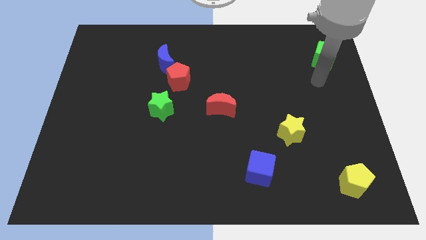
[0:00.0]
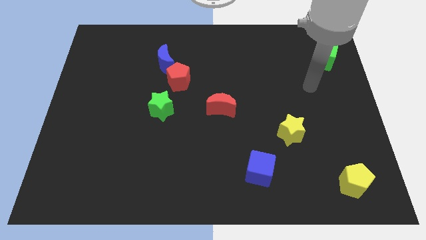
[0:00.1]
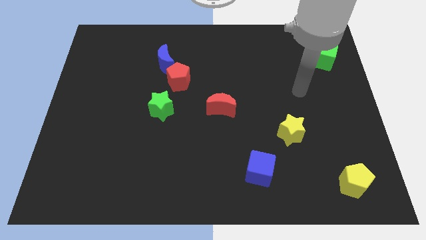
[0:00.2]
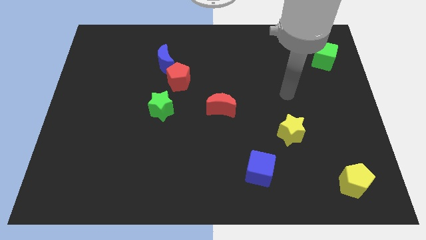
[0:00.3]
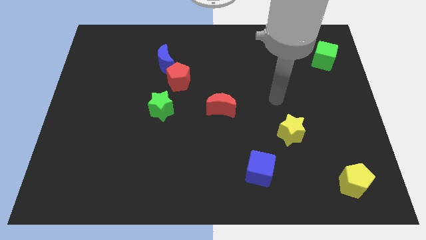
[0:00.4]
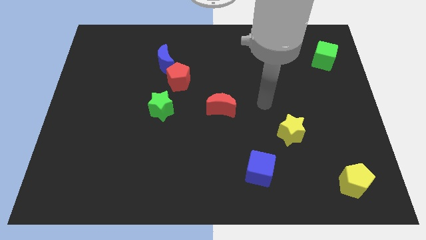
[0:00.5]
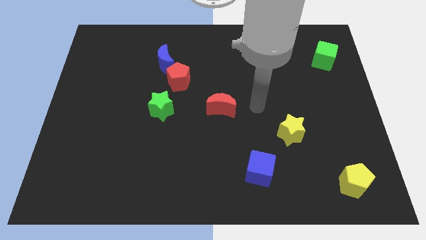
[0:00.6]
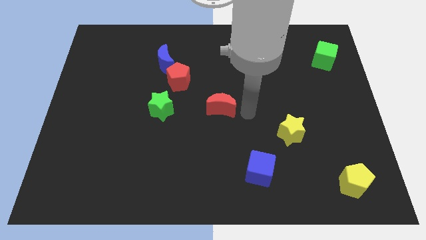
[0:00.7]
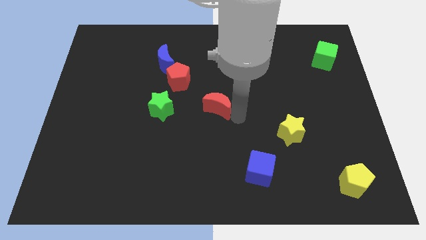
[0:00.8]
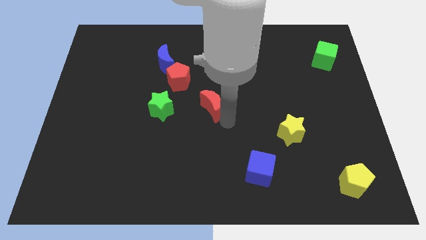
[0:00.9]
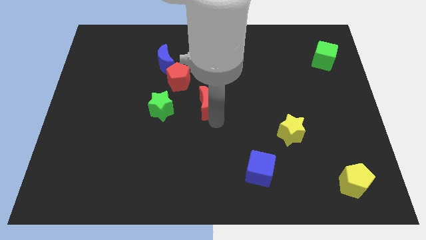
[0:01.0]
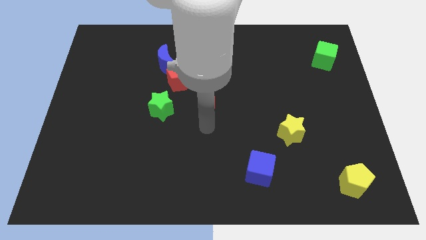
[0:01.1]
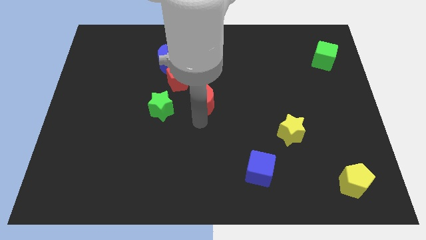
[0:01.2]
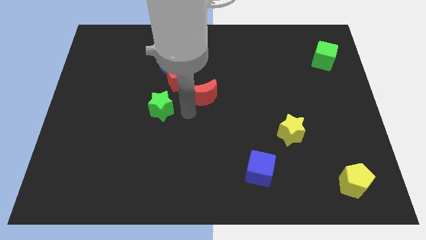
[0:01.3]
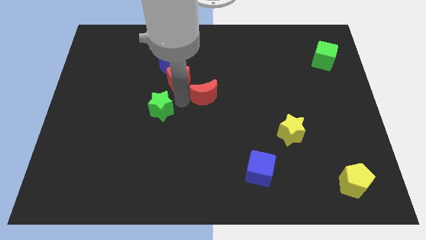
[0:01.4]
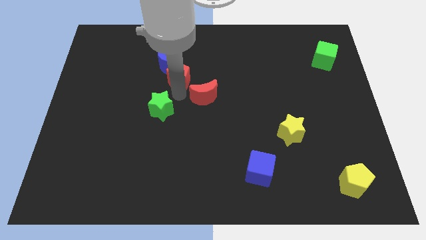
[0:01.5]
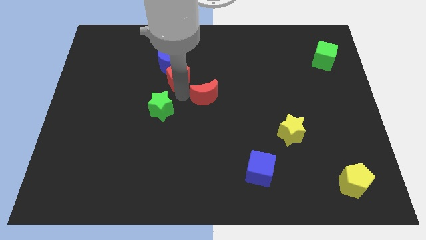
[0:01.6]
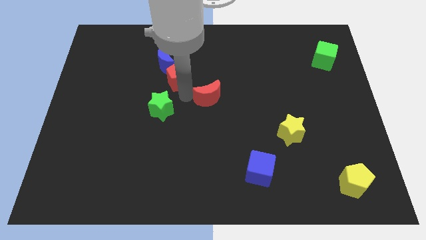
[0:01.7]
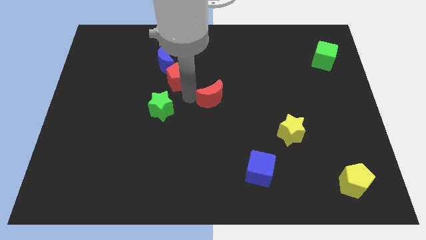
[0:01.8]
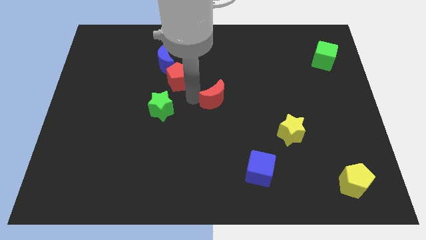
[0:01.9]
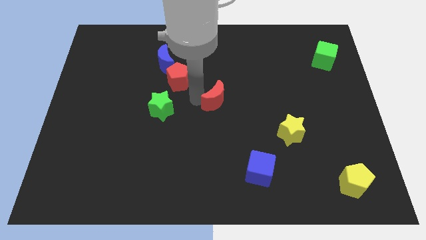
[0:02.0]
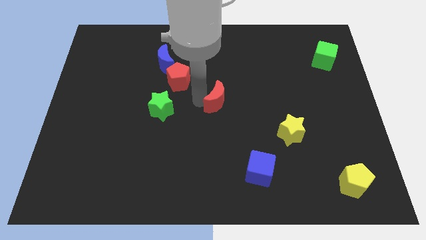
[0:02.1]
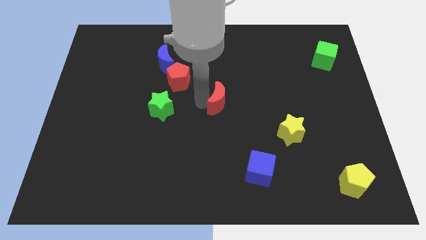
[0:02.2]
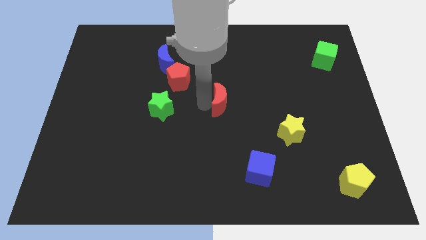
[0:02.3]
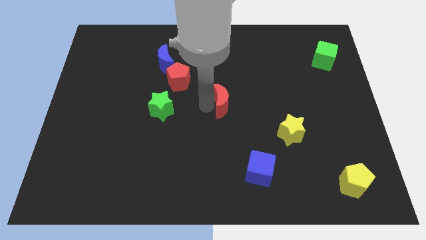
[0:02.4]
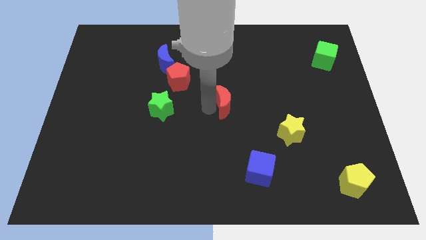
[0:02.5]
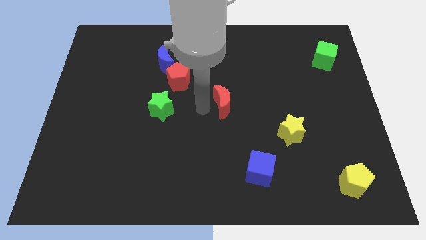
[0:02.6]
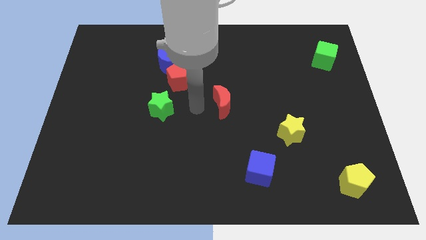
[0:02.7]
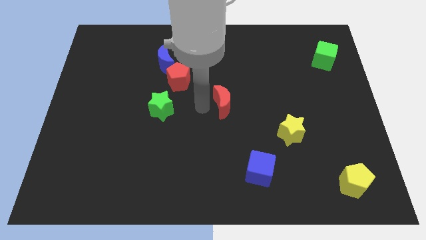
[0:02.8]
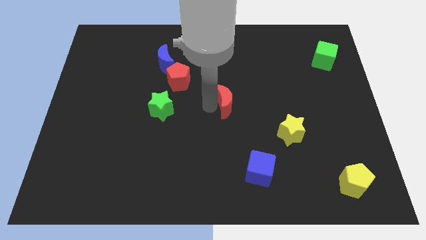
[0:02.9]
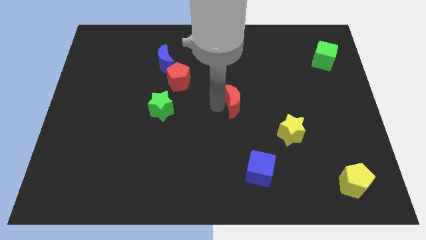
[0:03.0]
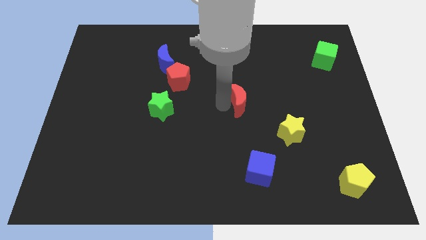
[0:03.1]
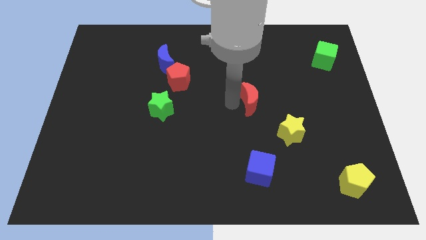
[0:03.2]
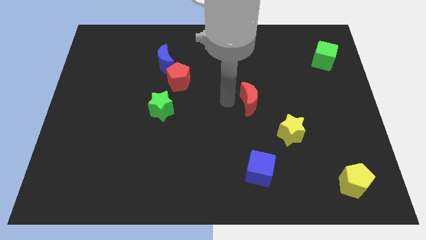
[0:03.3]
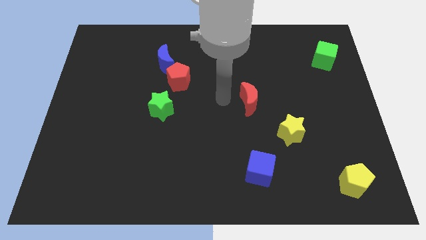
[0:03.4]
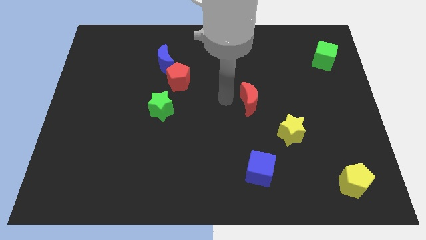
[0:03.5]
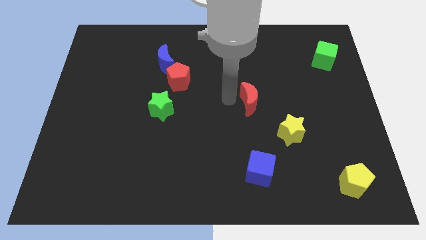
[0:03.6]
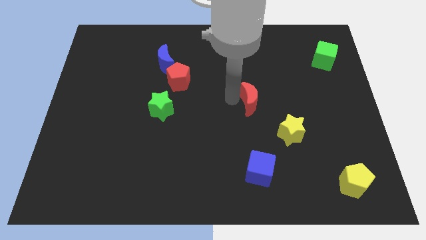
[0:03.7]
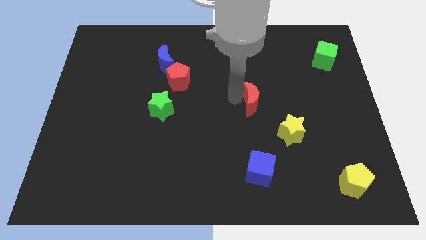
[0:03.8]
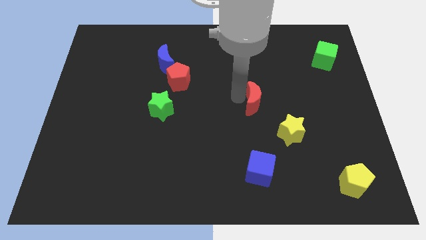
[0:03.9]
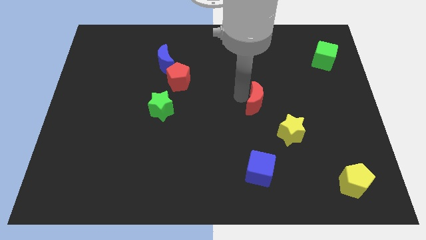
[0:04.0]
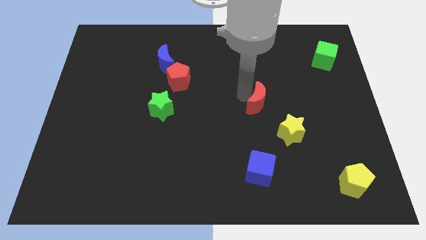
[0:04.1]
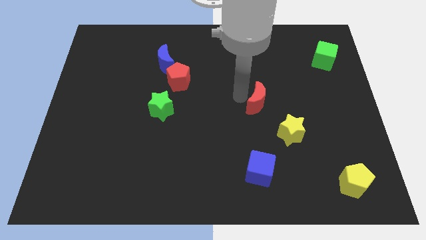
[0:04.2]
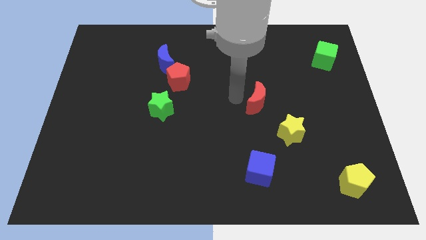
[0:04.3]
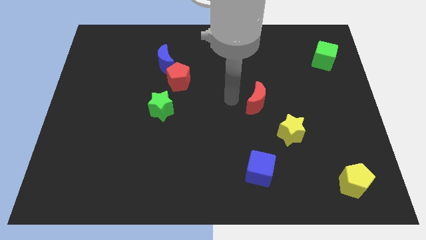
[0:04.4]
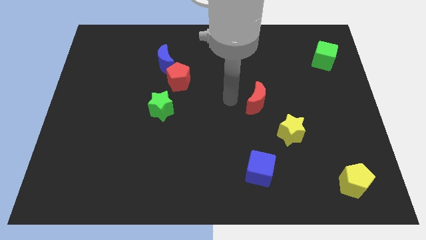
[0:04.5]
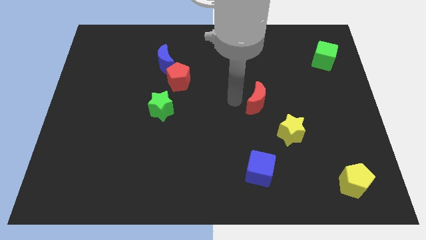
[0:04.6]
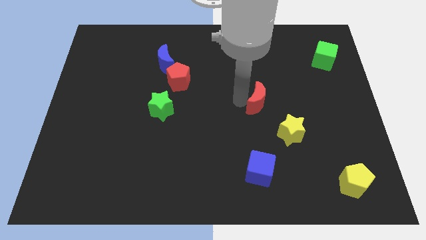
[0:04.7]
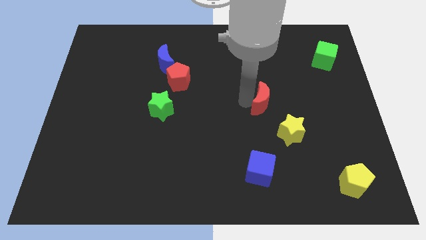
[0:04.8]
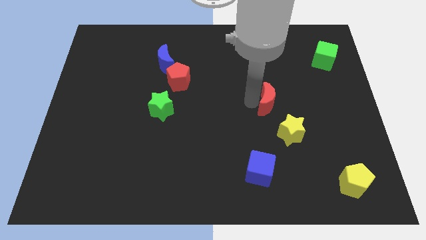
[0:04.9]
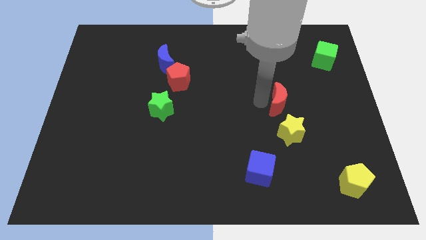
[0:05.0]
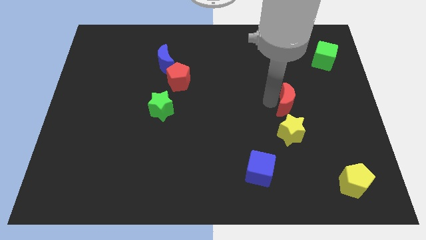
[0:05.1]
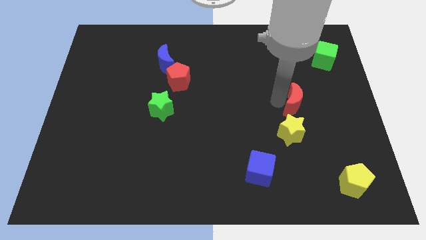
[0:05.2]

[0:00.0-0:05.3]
slide the red moon to the top right of the yellow star

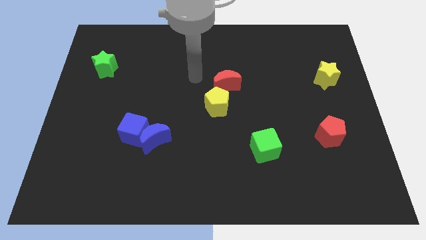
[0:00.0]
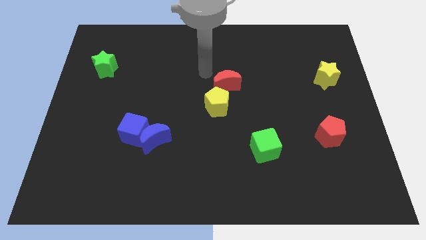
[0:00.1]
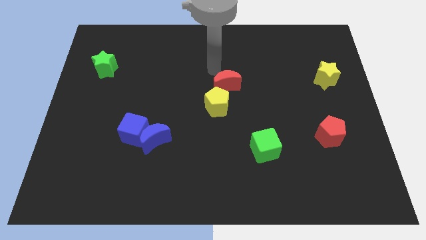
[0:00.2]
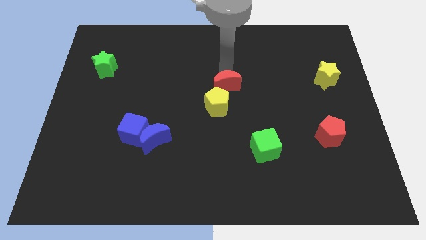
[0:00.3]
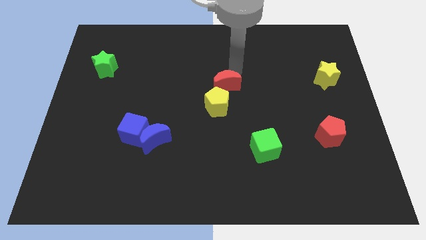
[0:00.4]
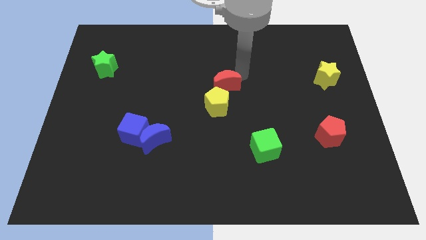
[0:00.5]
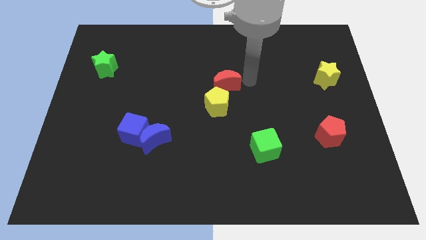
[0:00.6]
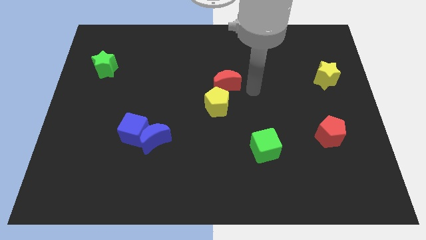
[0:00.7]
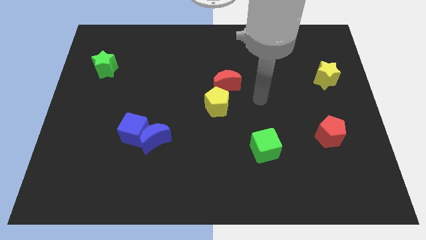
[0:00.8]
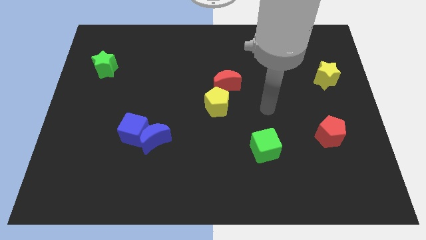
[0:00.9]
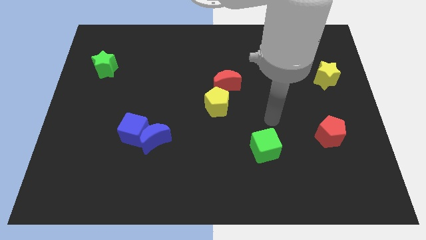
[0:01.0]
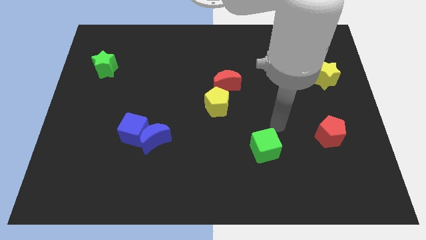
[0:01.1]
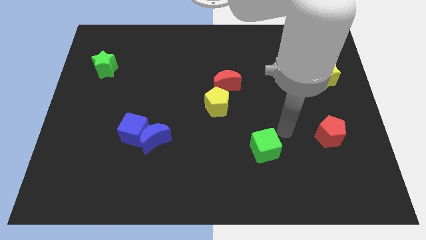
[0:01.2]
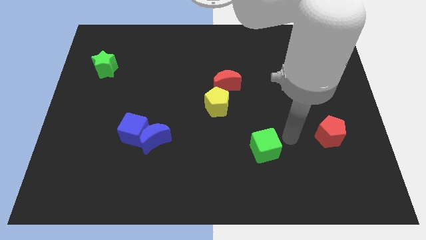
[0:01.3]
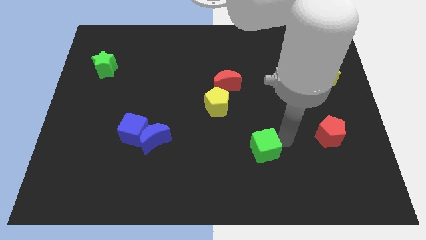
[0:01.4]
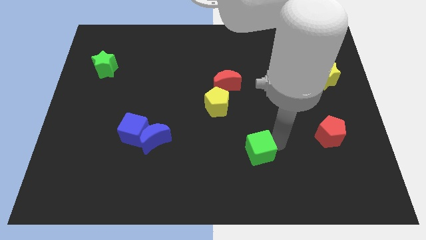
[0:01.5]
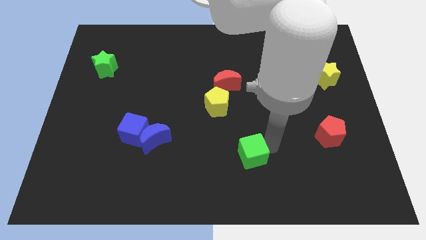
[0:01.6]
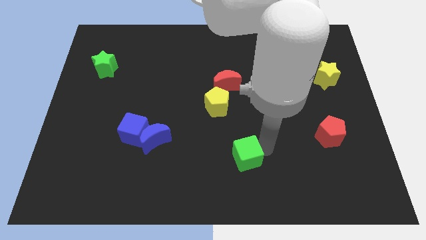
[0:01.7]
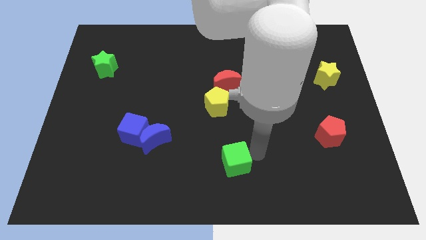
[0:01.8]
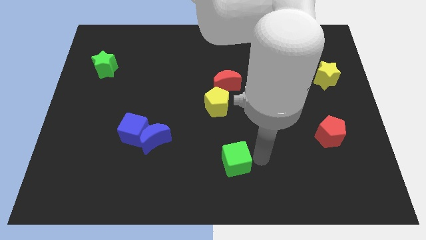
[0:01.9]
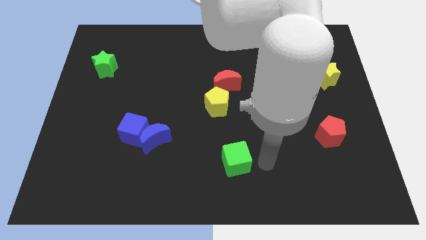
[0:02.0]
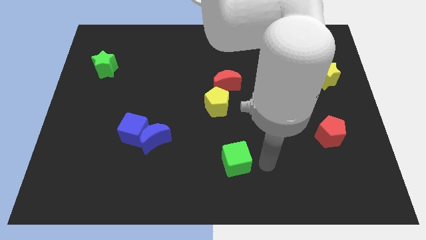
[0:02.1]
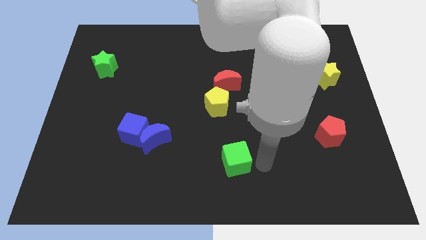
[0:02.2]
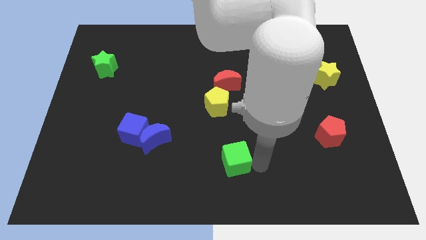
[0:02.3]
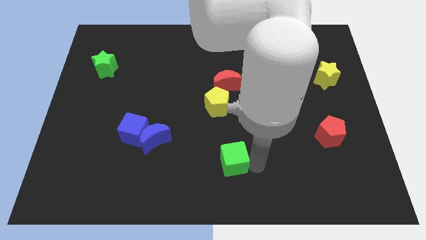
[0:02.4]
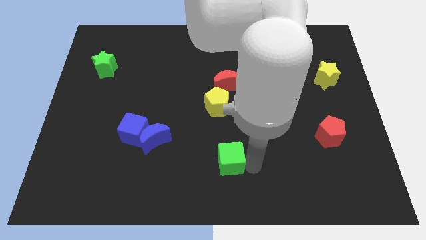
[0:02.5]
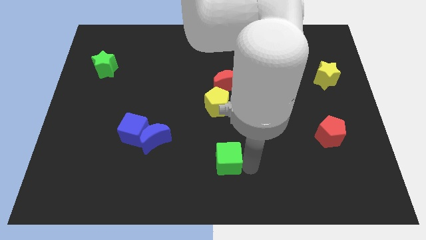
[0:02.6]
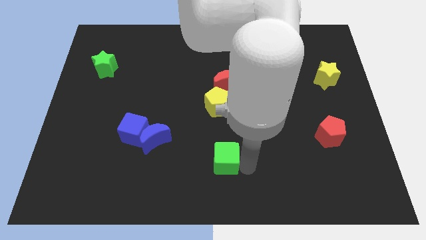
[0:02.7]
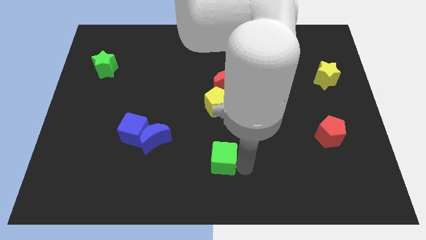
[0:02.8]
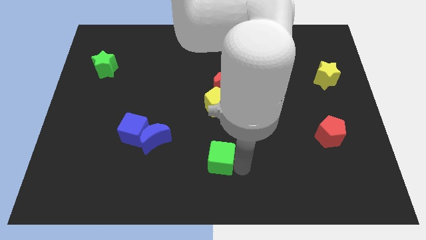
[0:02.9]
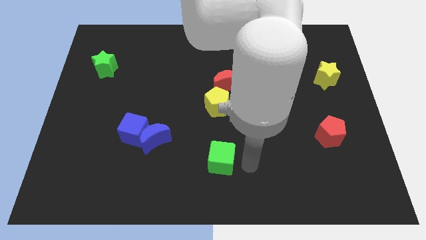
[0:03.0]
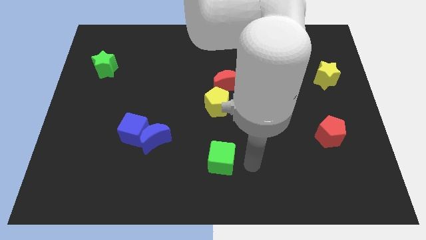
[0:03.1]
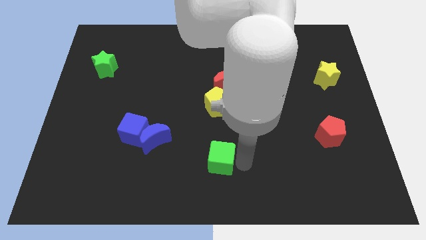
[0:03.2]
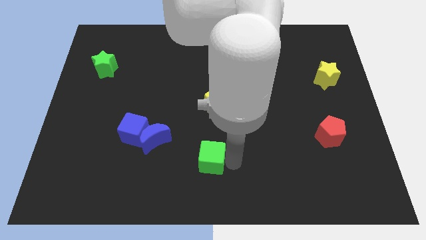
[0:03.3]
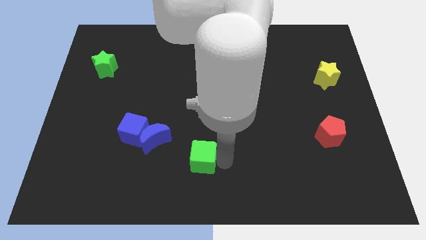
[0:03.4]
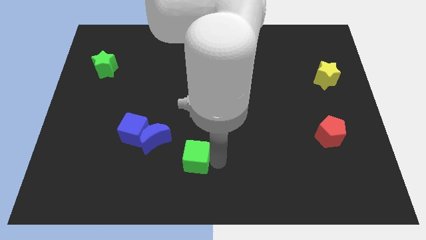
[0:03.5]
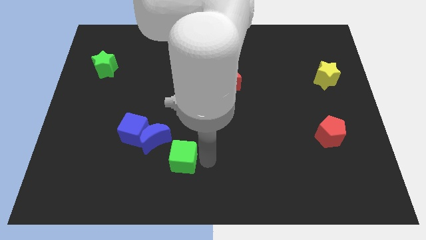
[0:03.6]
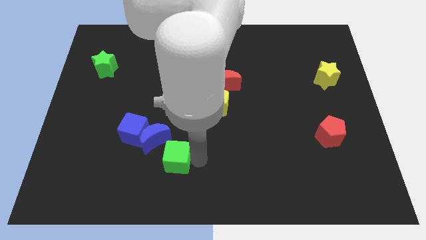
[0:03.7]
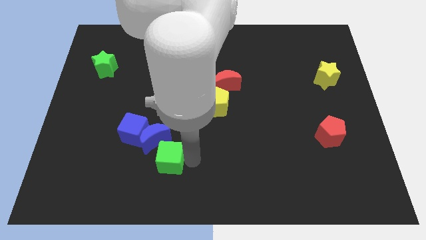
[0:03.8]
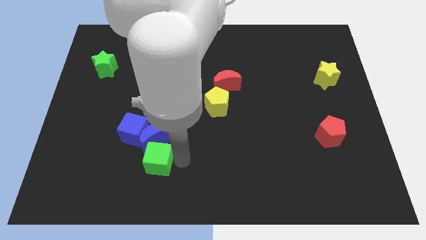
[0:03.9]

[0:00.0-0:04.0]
push the green cube to the bottom left side of the blue moon
